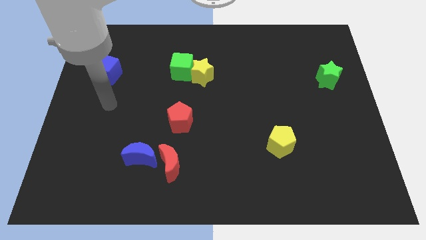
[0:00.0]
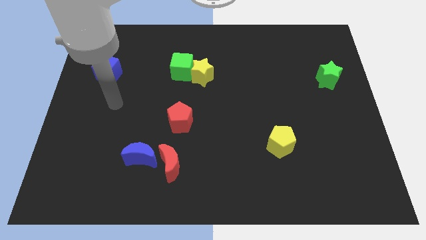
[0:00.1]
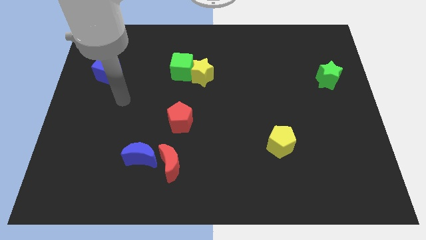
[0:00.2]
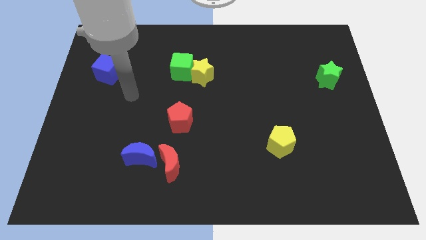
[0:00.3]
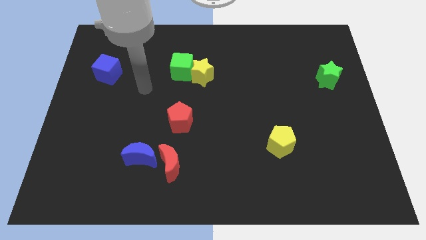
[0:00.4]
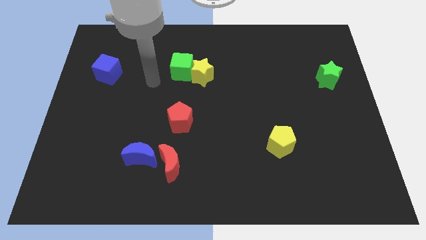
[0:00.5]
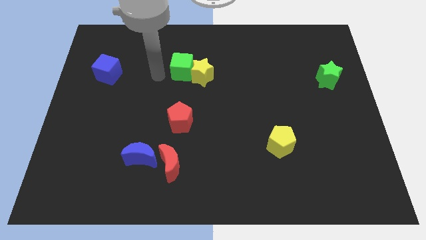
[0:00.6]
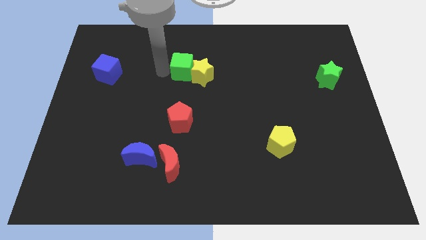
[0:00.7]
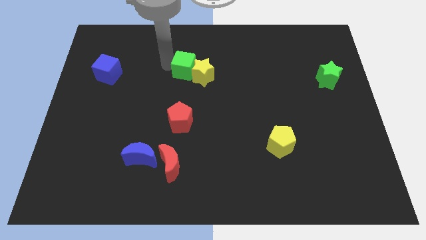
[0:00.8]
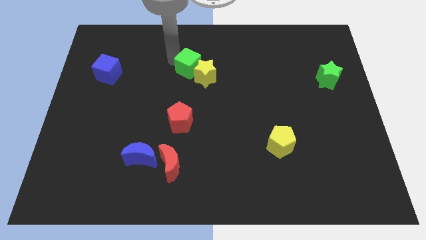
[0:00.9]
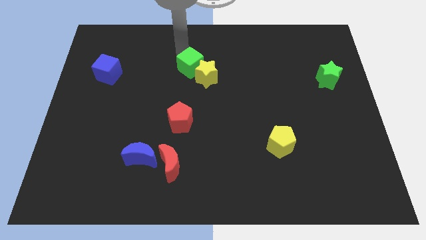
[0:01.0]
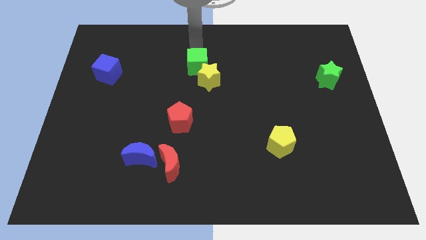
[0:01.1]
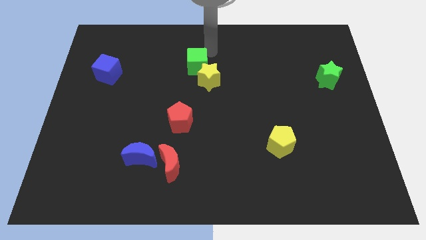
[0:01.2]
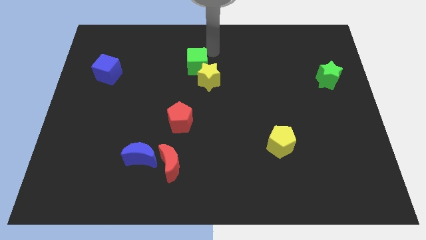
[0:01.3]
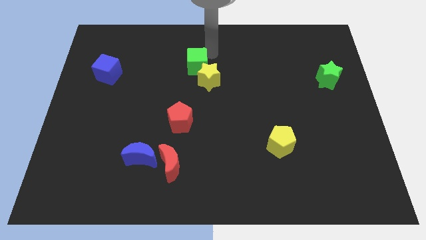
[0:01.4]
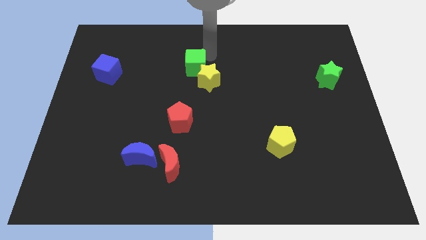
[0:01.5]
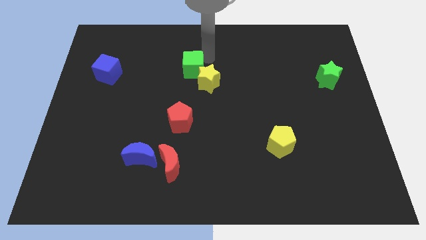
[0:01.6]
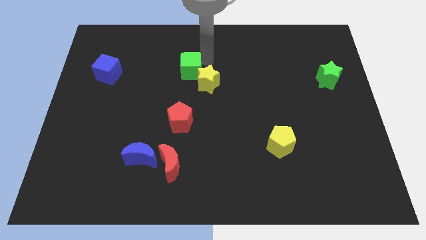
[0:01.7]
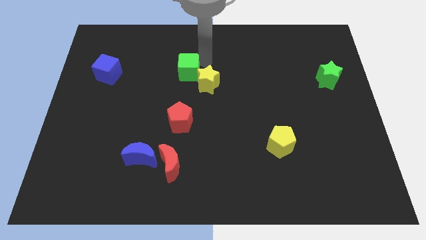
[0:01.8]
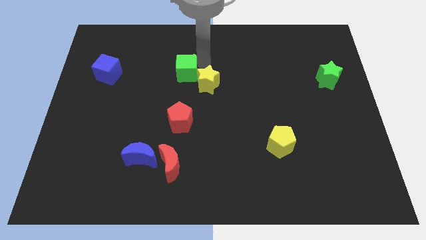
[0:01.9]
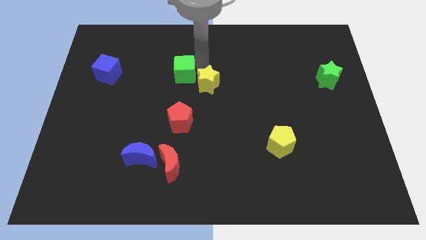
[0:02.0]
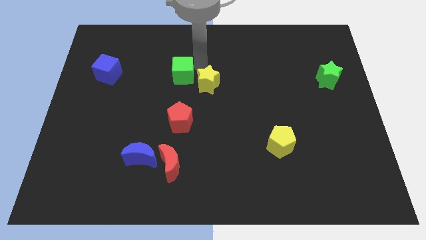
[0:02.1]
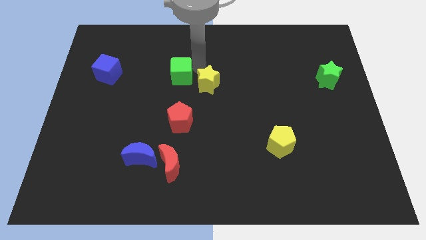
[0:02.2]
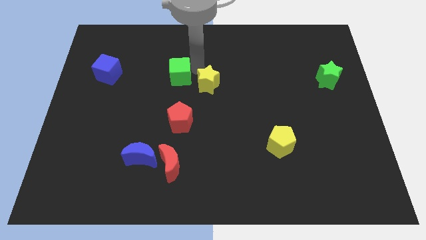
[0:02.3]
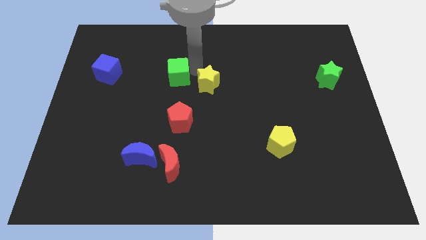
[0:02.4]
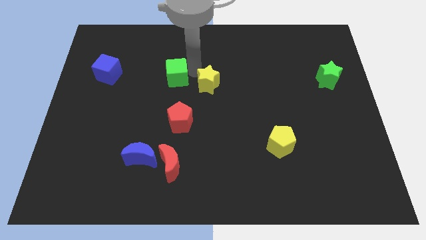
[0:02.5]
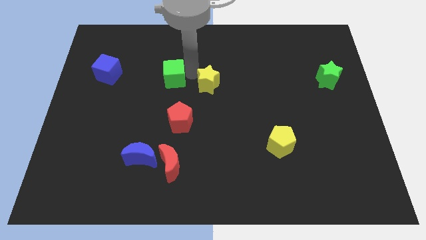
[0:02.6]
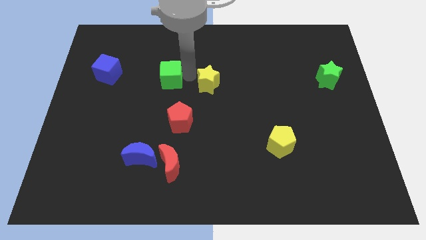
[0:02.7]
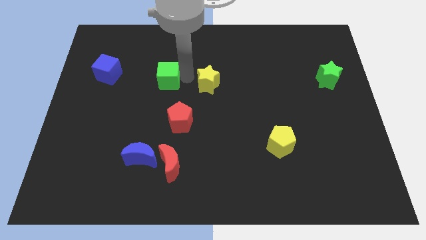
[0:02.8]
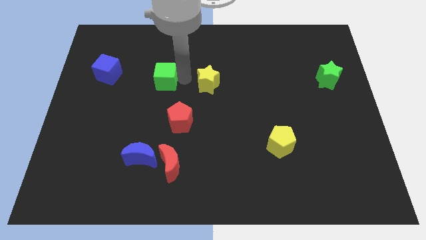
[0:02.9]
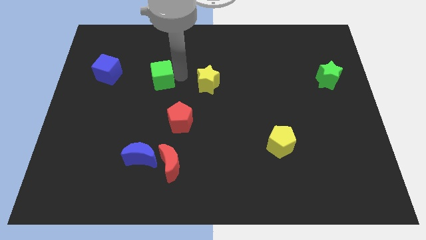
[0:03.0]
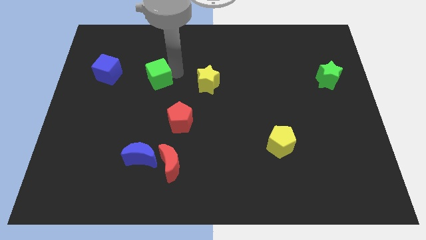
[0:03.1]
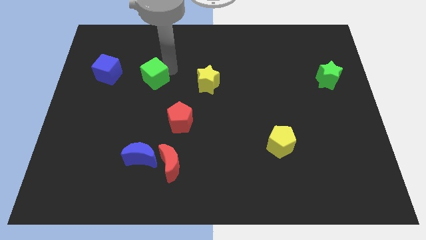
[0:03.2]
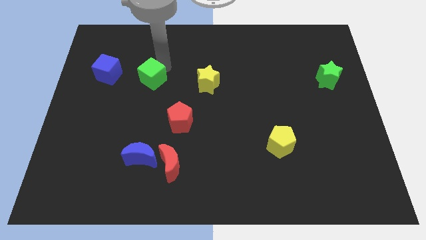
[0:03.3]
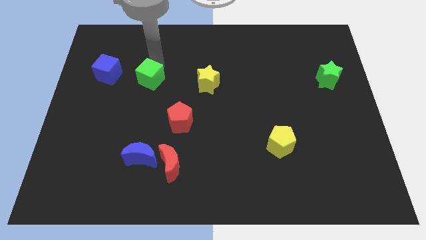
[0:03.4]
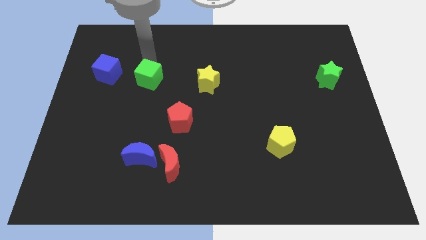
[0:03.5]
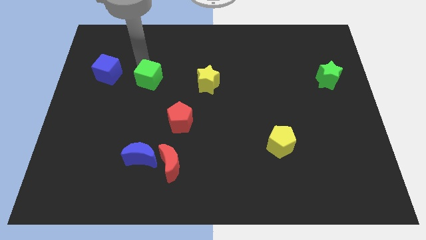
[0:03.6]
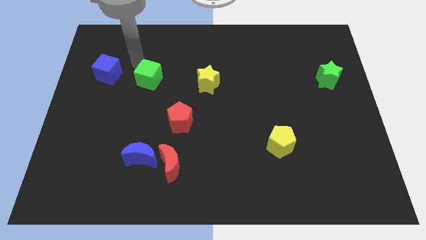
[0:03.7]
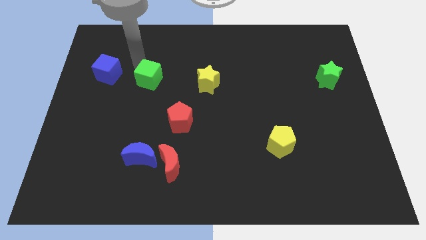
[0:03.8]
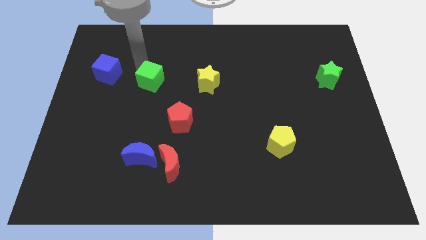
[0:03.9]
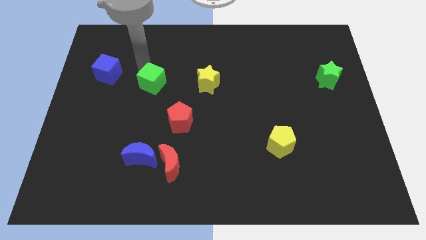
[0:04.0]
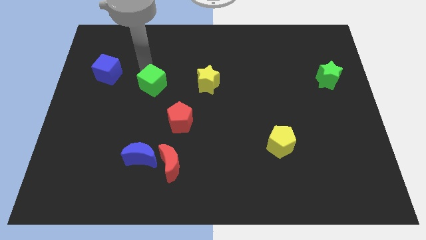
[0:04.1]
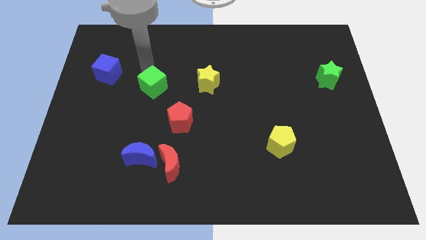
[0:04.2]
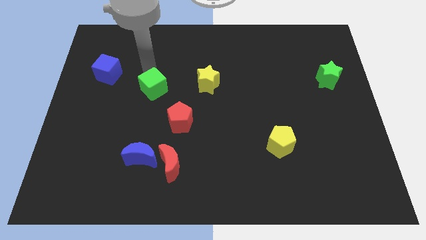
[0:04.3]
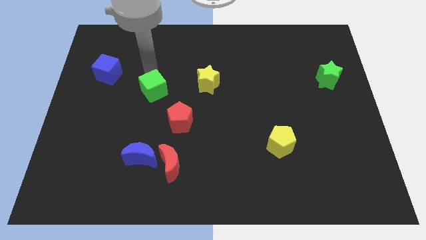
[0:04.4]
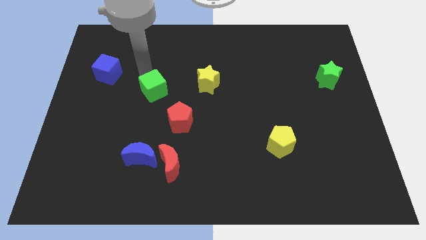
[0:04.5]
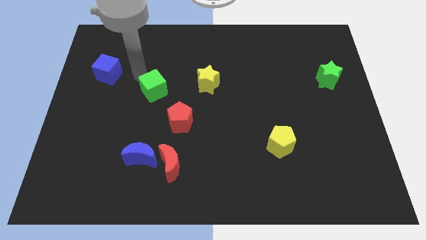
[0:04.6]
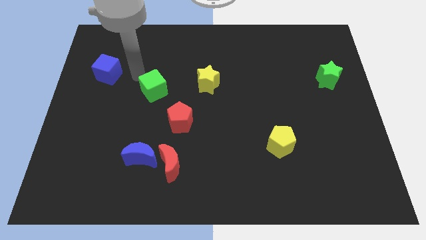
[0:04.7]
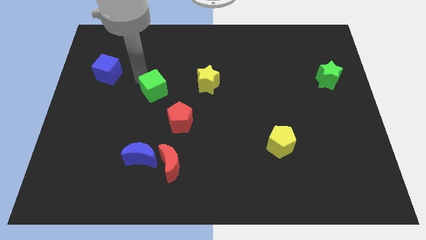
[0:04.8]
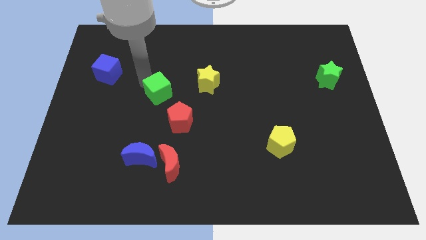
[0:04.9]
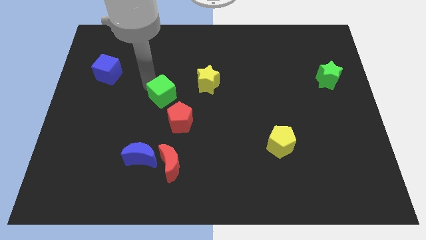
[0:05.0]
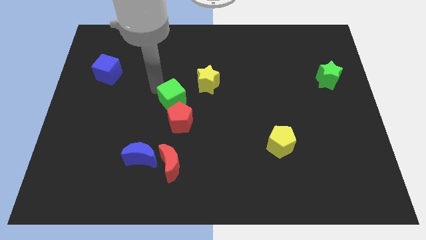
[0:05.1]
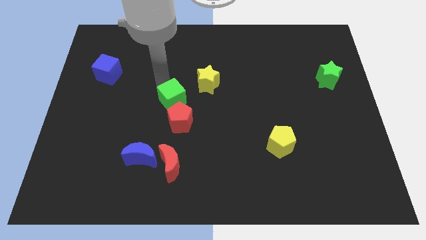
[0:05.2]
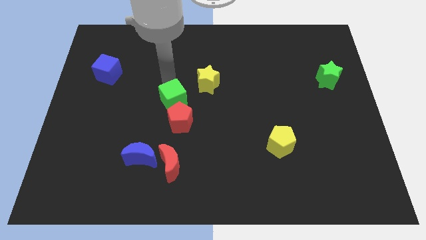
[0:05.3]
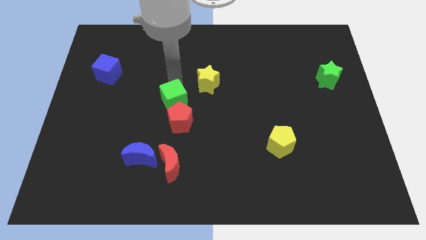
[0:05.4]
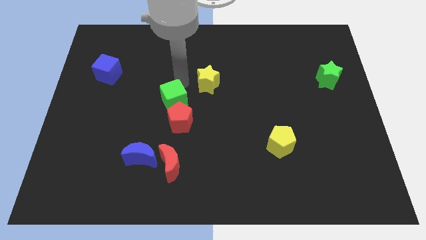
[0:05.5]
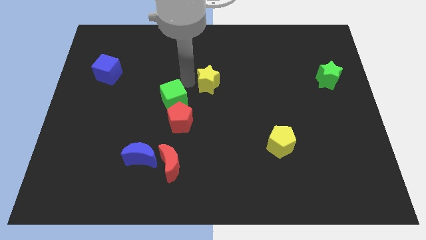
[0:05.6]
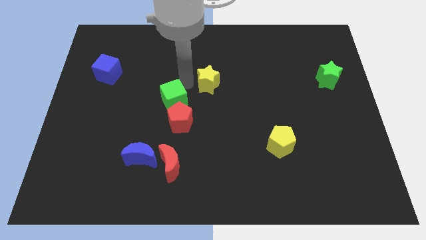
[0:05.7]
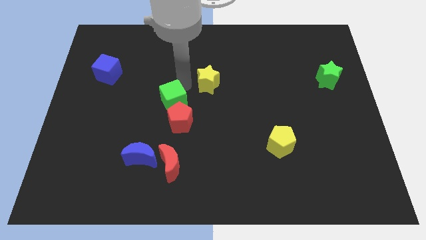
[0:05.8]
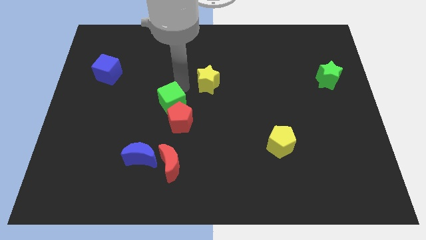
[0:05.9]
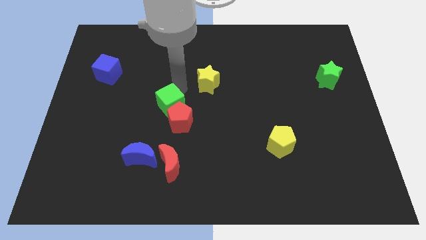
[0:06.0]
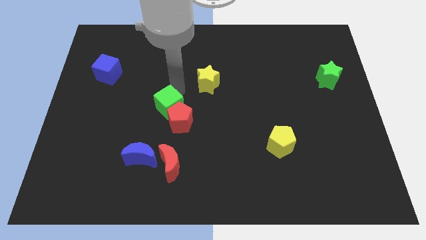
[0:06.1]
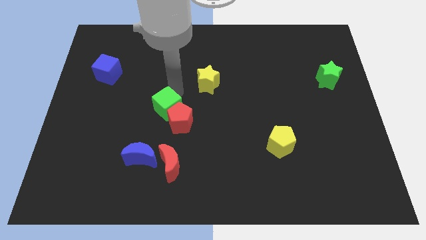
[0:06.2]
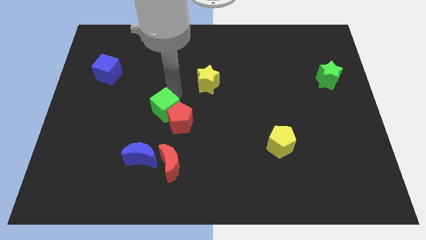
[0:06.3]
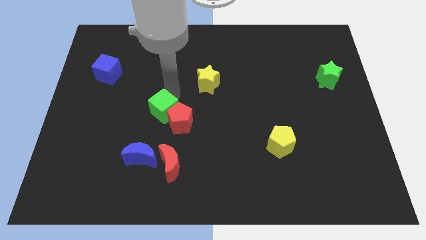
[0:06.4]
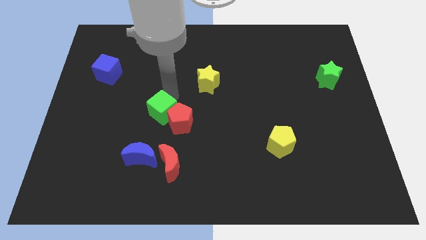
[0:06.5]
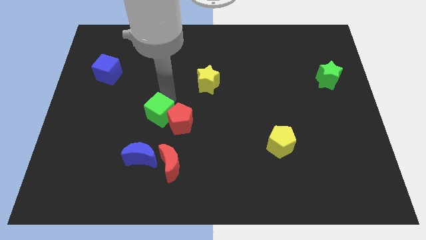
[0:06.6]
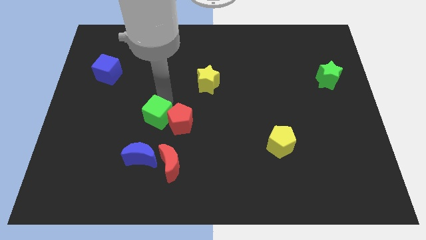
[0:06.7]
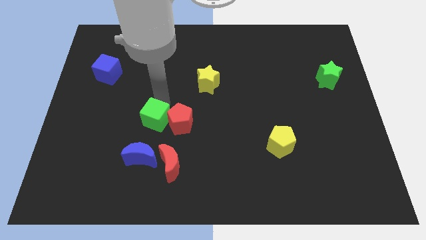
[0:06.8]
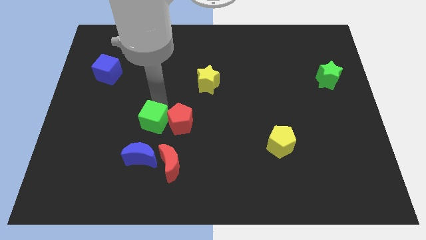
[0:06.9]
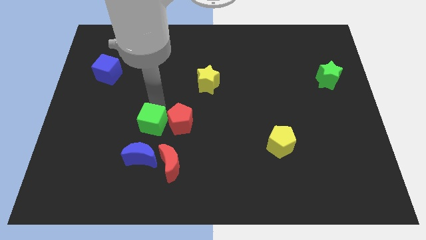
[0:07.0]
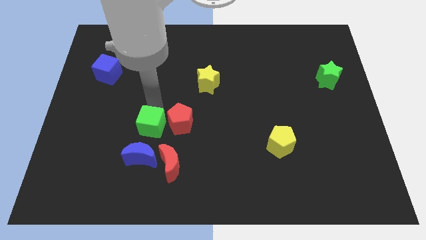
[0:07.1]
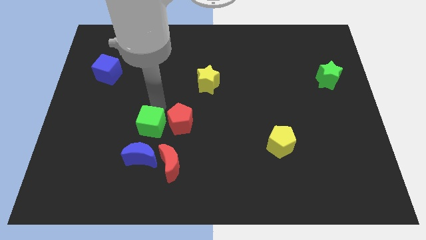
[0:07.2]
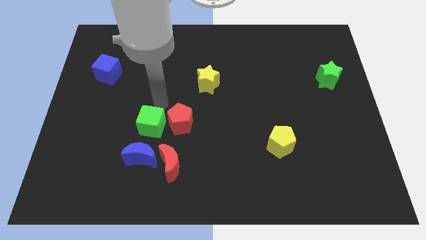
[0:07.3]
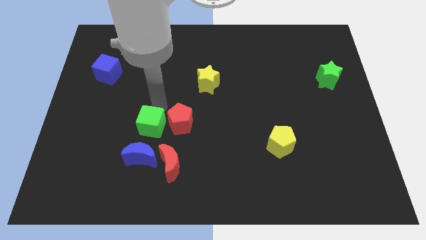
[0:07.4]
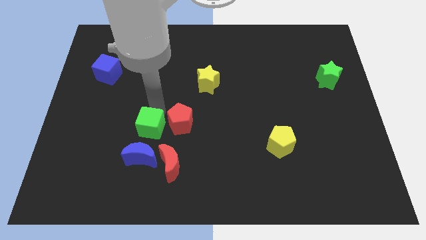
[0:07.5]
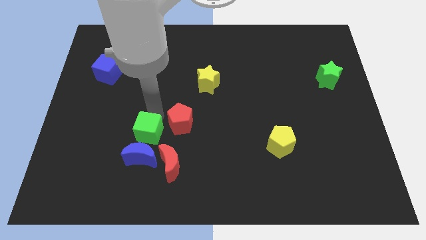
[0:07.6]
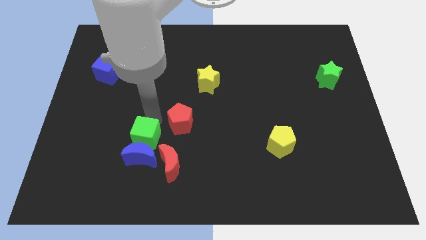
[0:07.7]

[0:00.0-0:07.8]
slide the green cube next to the blue moon
